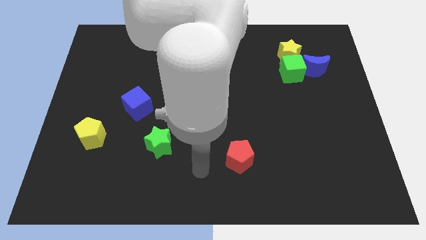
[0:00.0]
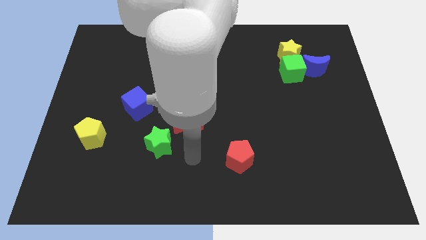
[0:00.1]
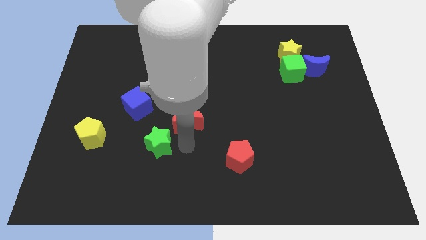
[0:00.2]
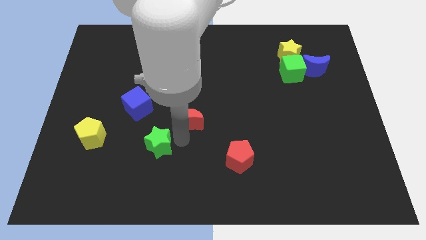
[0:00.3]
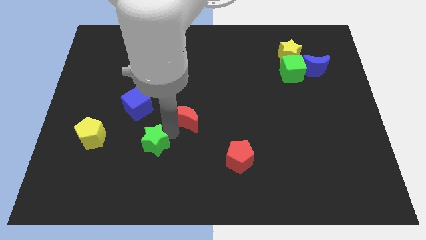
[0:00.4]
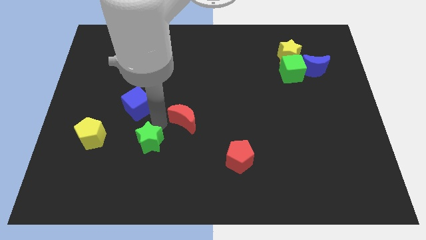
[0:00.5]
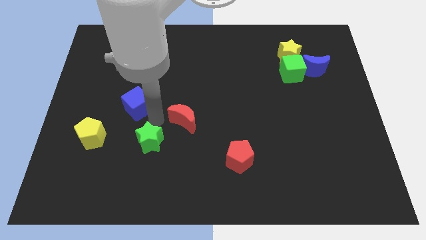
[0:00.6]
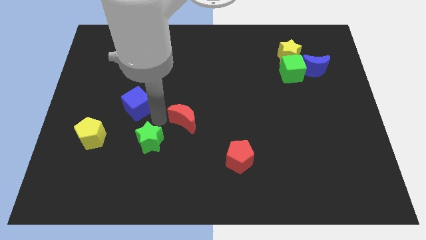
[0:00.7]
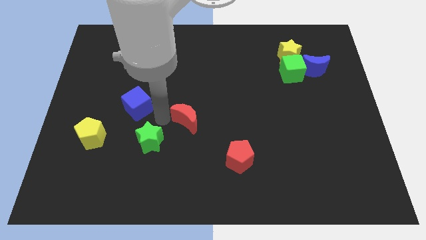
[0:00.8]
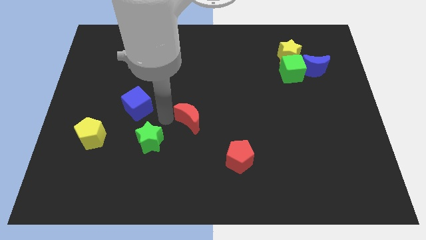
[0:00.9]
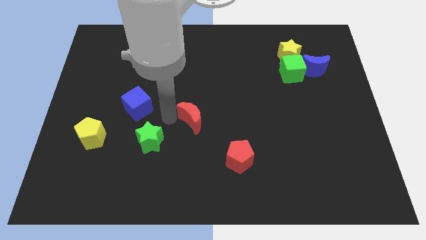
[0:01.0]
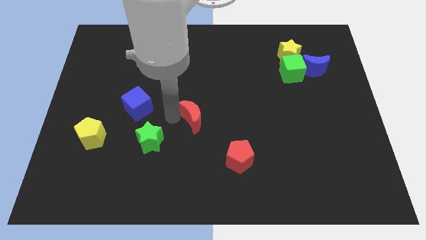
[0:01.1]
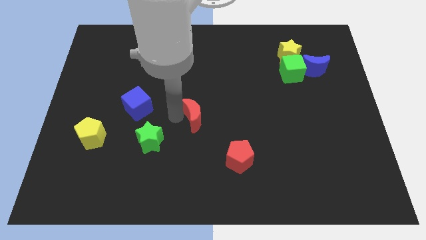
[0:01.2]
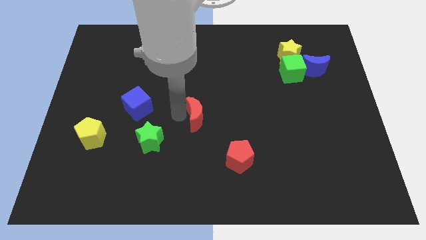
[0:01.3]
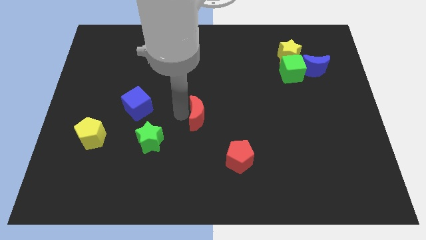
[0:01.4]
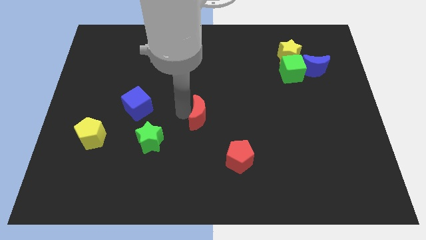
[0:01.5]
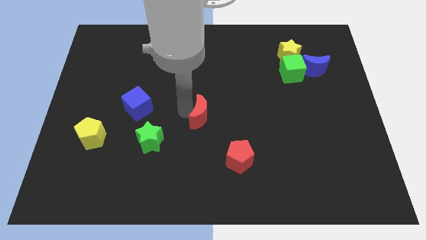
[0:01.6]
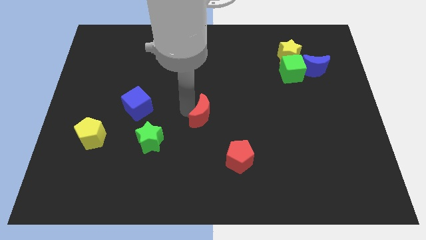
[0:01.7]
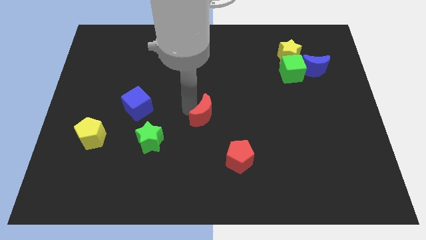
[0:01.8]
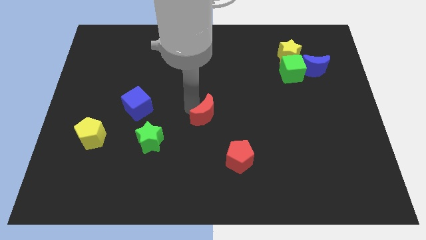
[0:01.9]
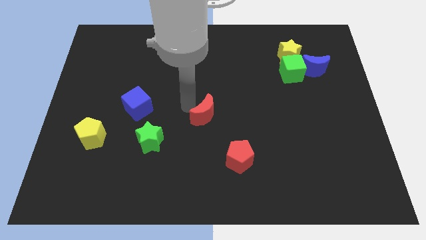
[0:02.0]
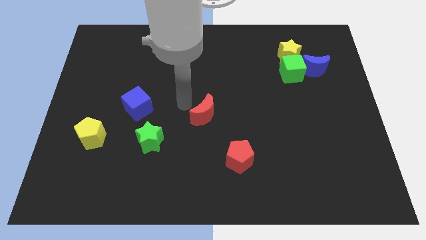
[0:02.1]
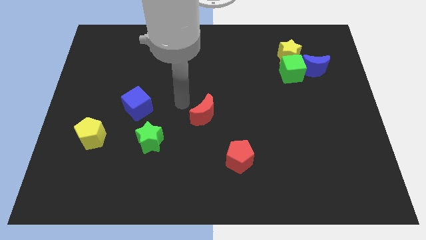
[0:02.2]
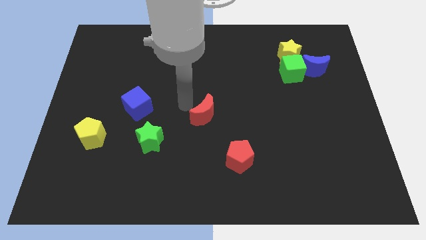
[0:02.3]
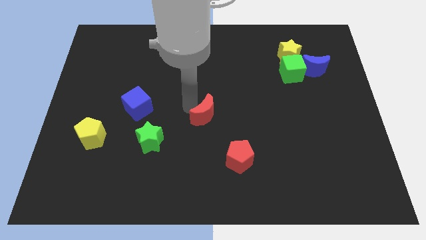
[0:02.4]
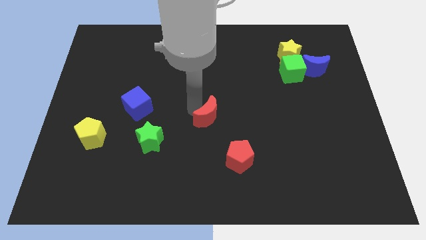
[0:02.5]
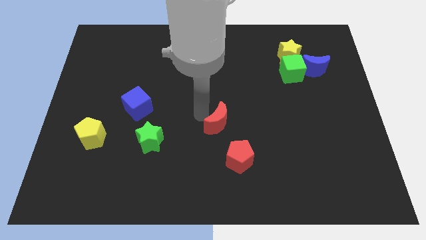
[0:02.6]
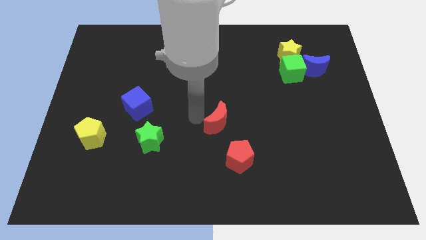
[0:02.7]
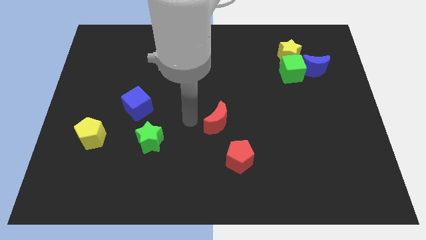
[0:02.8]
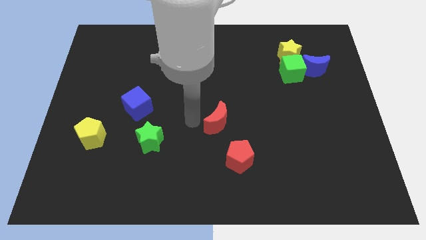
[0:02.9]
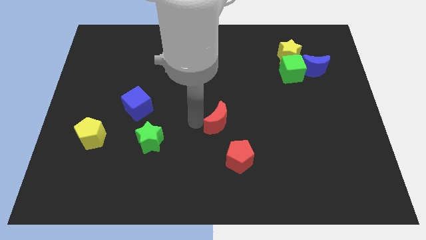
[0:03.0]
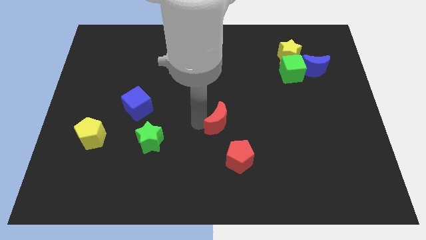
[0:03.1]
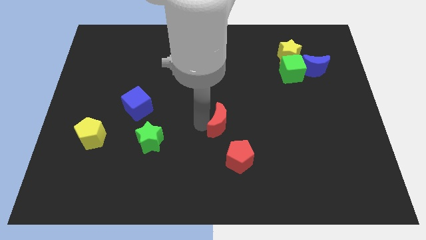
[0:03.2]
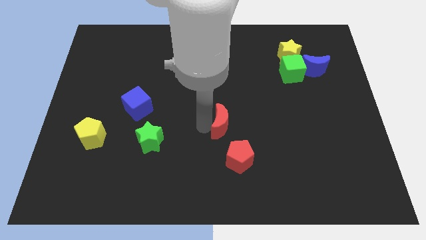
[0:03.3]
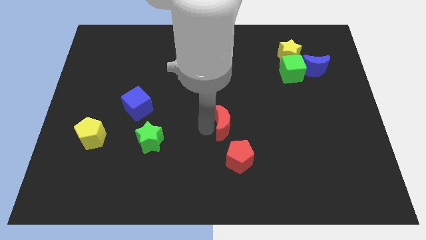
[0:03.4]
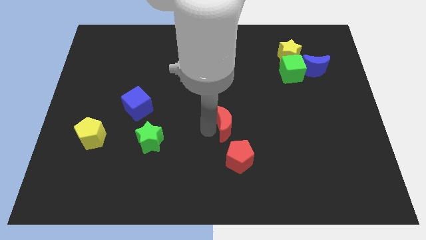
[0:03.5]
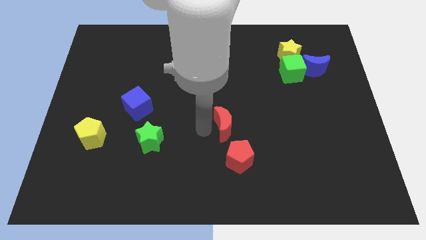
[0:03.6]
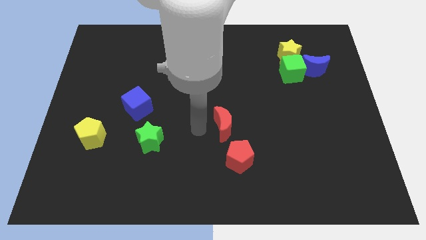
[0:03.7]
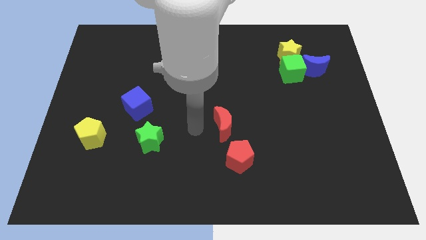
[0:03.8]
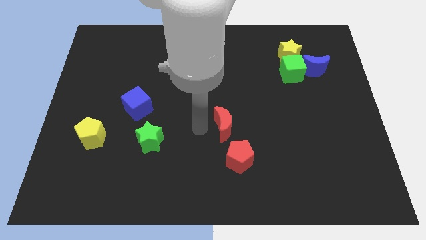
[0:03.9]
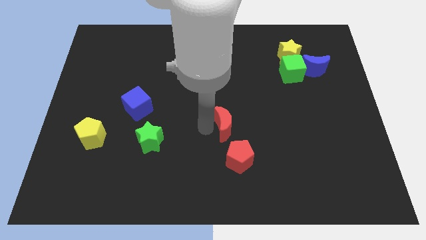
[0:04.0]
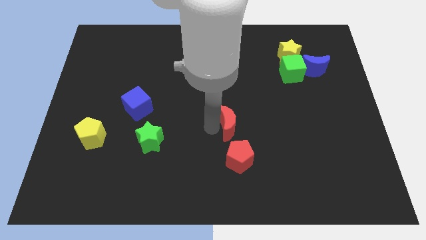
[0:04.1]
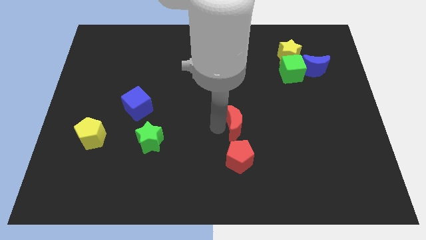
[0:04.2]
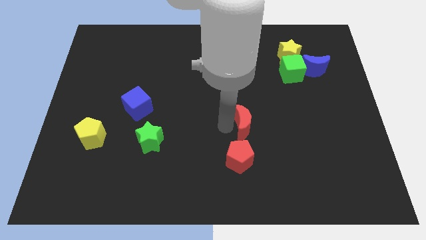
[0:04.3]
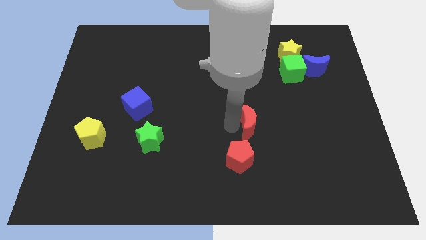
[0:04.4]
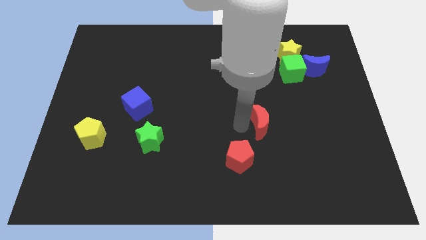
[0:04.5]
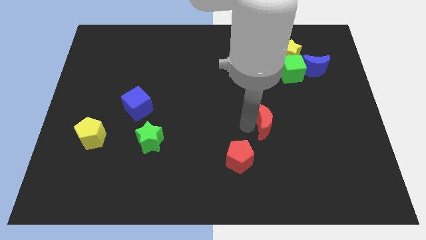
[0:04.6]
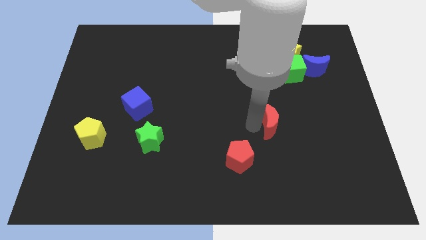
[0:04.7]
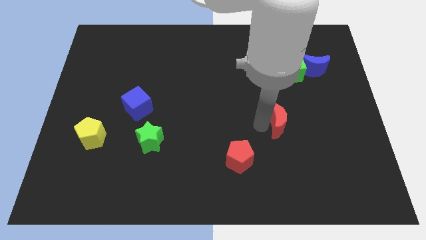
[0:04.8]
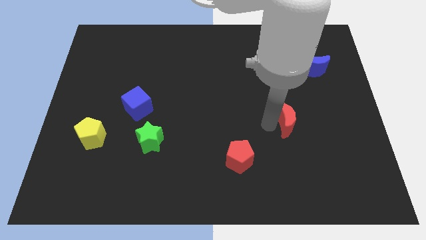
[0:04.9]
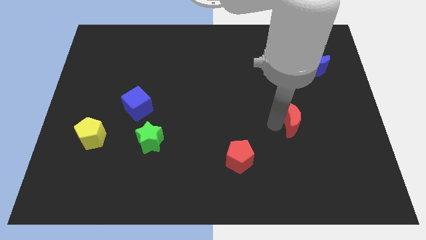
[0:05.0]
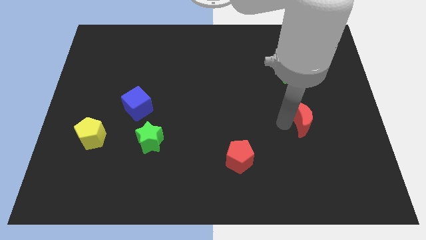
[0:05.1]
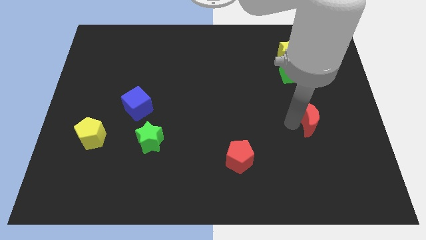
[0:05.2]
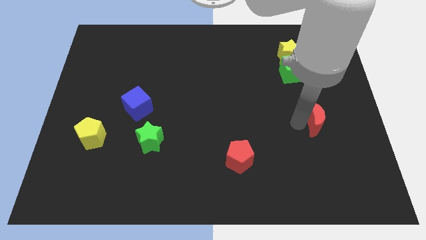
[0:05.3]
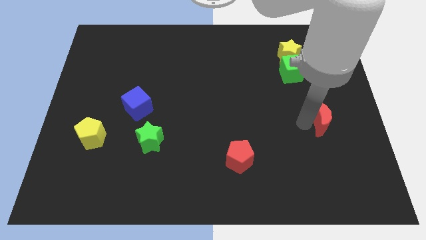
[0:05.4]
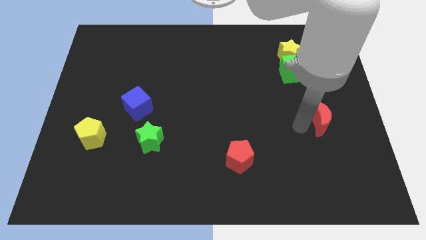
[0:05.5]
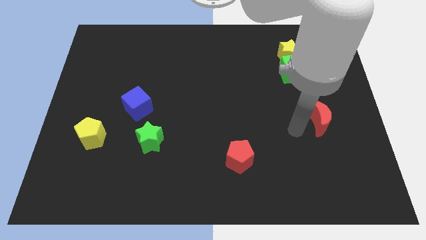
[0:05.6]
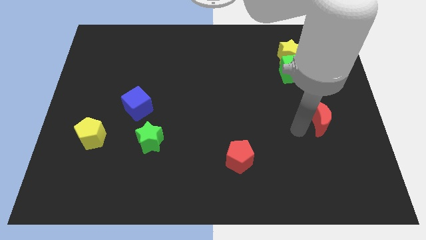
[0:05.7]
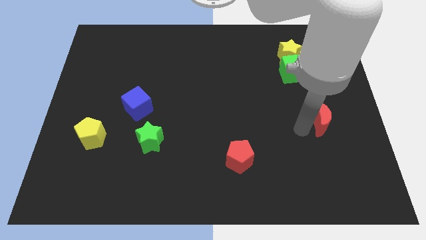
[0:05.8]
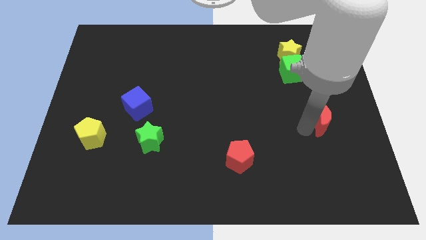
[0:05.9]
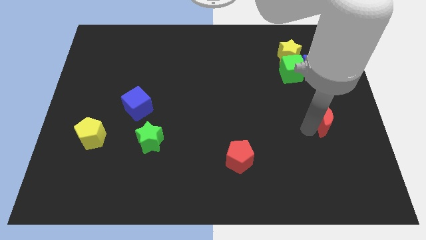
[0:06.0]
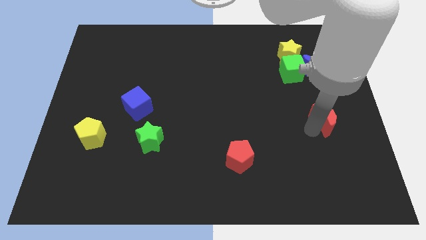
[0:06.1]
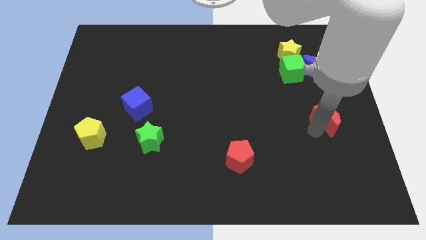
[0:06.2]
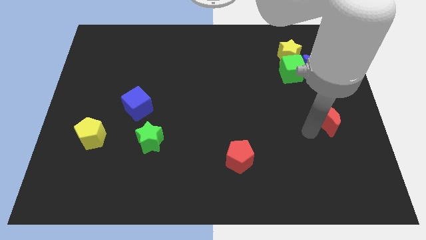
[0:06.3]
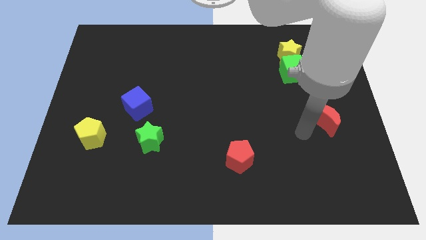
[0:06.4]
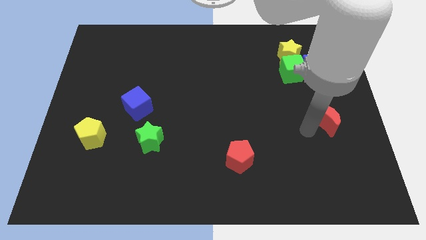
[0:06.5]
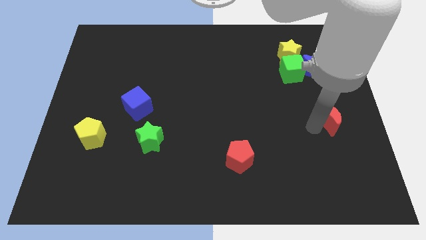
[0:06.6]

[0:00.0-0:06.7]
move the red moon to the right side
